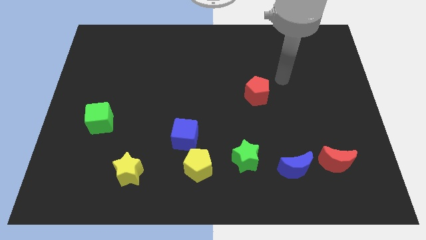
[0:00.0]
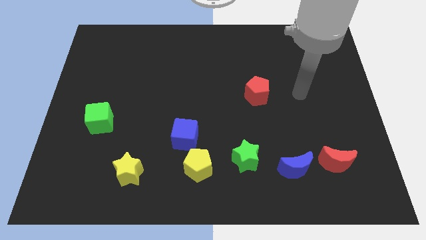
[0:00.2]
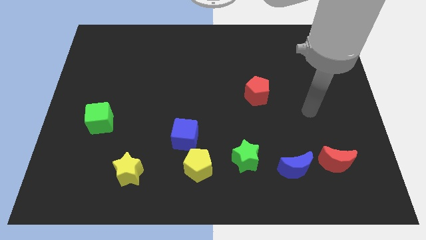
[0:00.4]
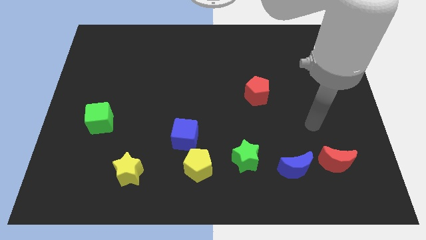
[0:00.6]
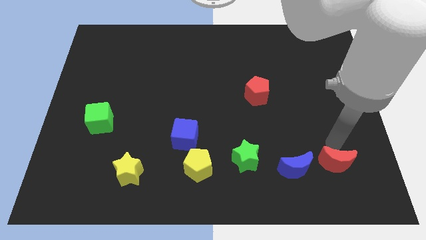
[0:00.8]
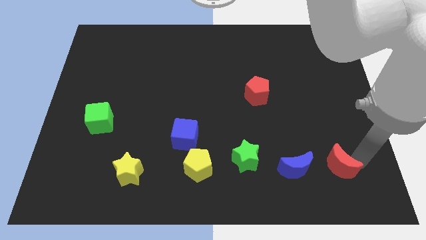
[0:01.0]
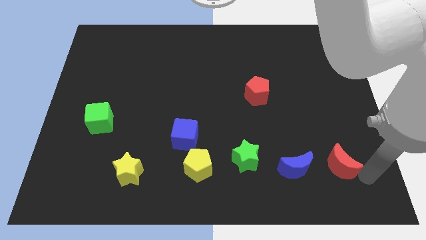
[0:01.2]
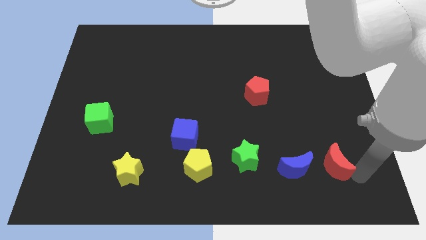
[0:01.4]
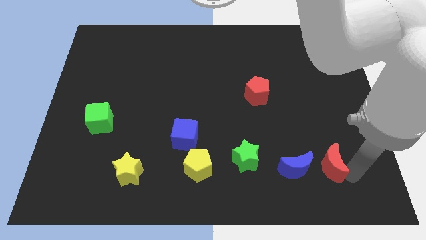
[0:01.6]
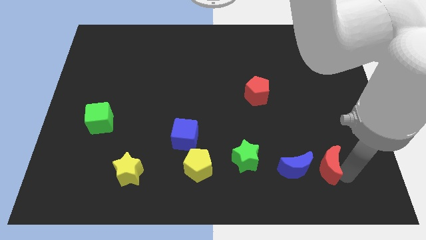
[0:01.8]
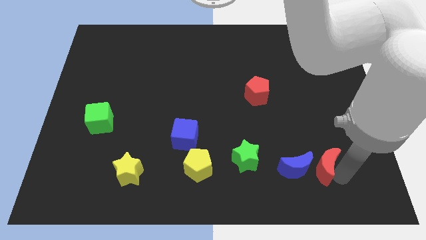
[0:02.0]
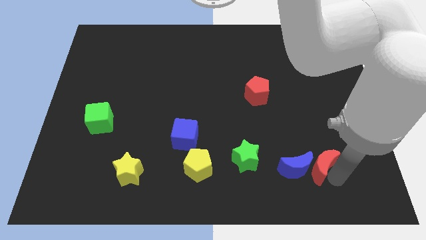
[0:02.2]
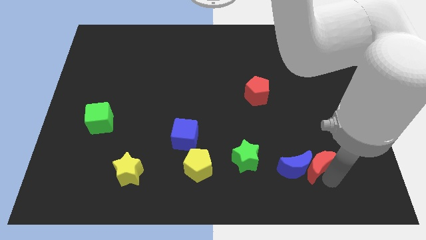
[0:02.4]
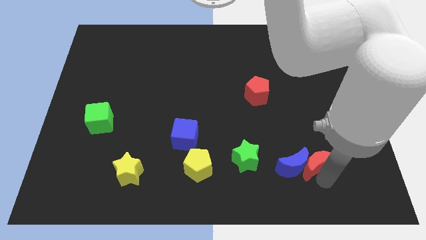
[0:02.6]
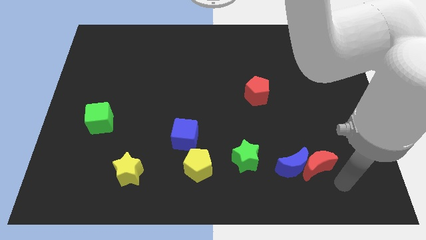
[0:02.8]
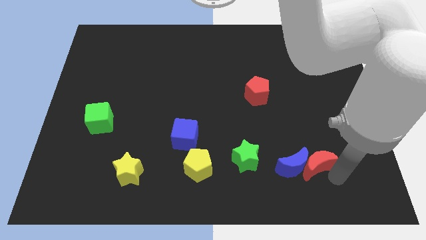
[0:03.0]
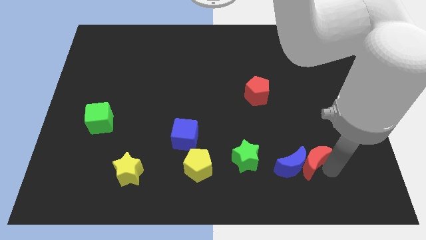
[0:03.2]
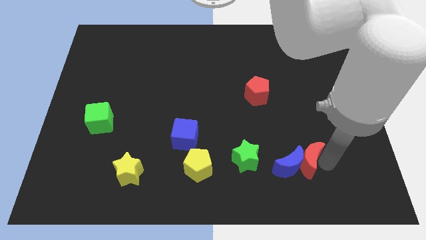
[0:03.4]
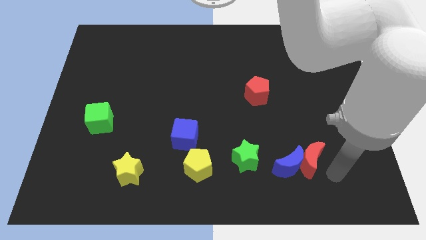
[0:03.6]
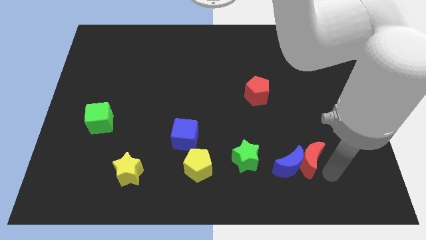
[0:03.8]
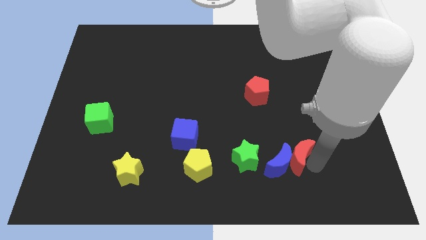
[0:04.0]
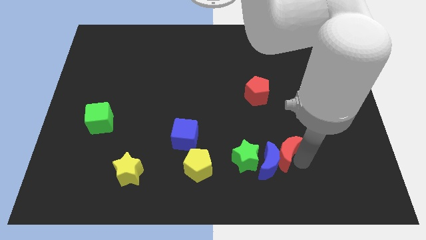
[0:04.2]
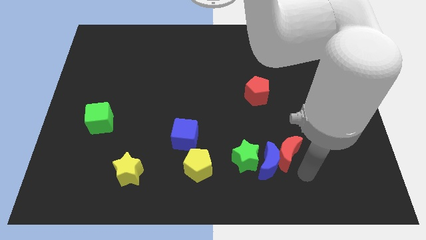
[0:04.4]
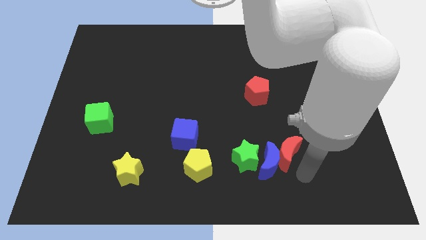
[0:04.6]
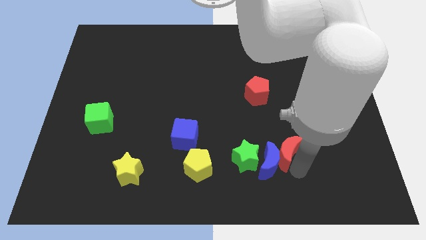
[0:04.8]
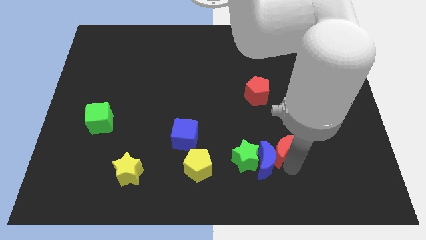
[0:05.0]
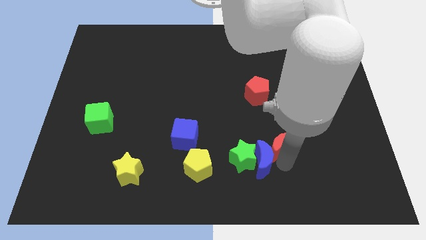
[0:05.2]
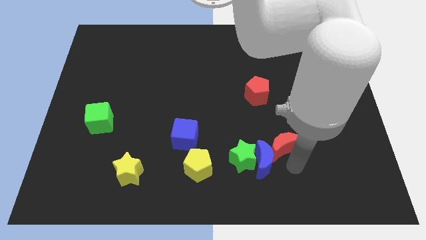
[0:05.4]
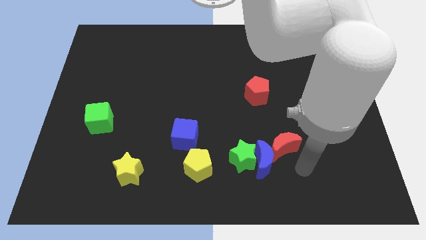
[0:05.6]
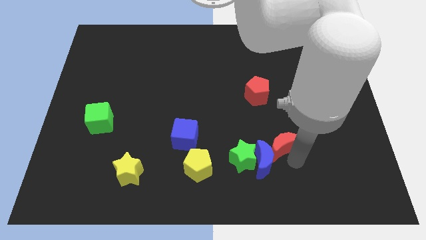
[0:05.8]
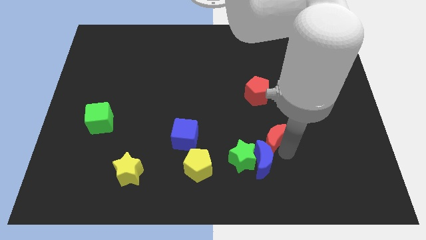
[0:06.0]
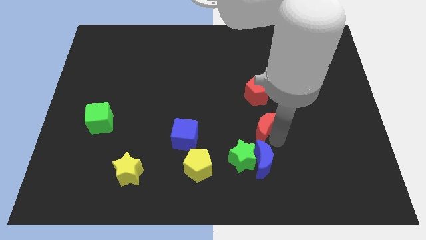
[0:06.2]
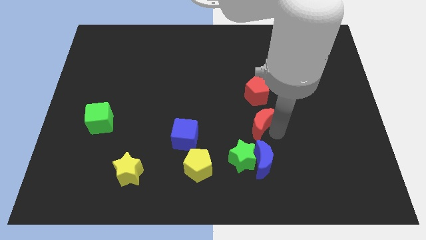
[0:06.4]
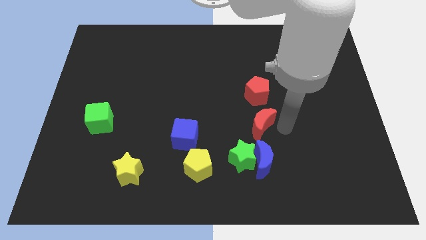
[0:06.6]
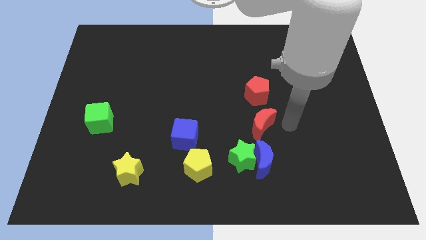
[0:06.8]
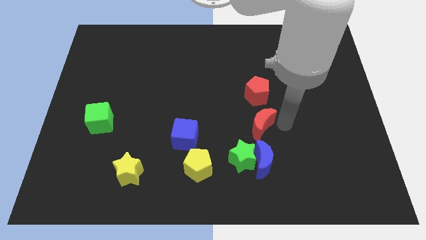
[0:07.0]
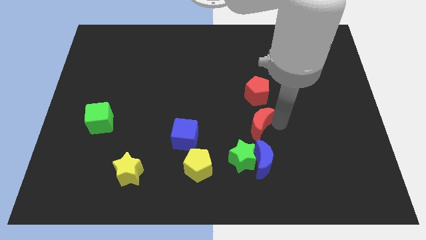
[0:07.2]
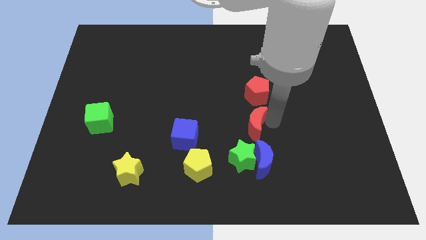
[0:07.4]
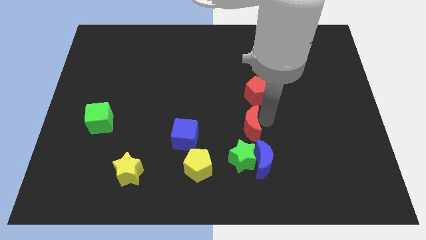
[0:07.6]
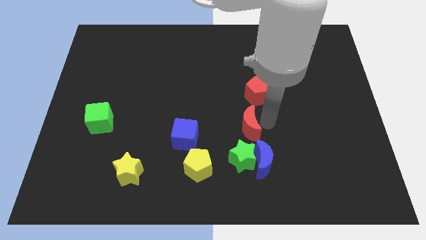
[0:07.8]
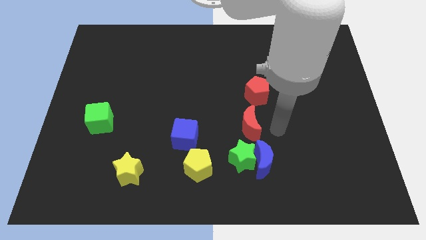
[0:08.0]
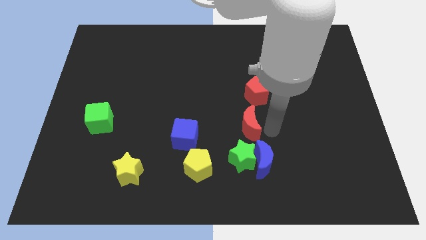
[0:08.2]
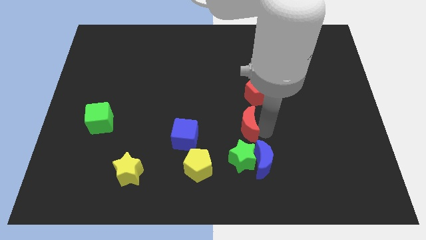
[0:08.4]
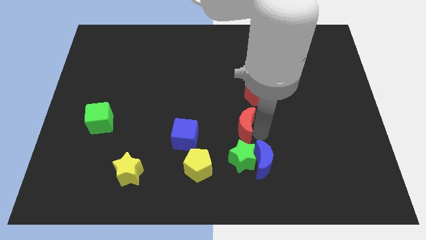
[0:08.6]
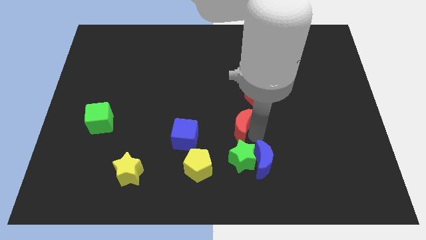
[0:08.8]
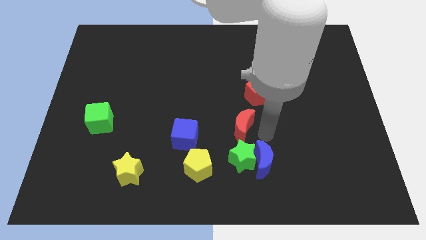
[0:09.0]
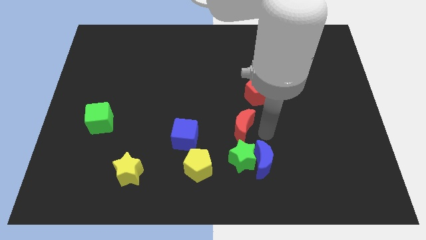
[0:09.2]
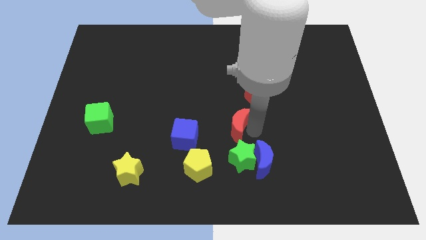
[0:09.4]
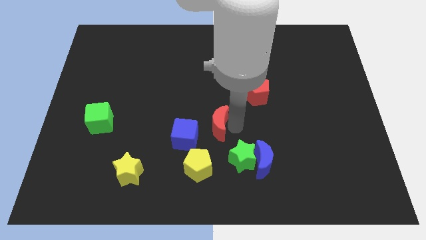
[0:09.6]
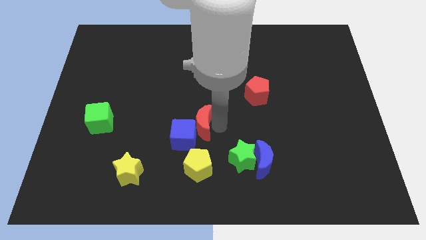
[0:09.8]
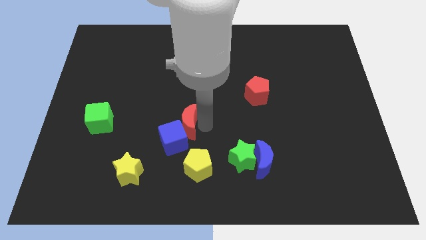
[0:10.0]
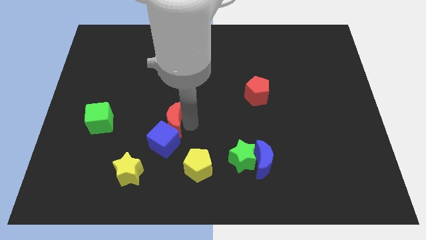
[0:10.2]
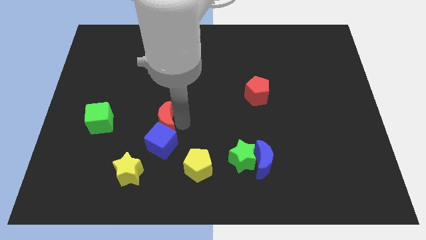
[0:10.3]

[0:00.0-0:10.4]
move the red moon right of the green cube

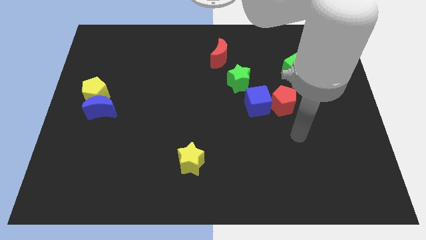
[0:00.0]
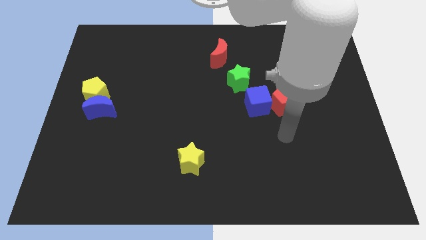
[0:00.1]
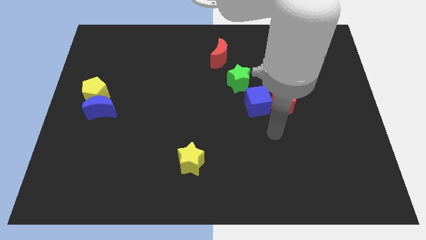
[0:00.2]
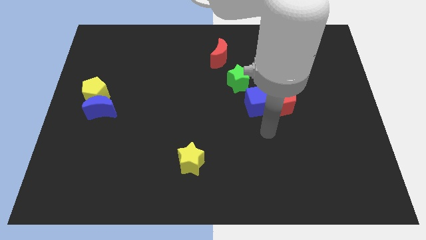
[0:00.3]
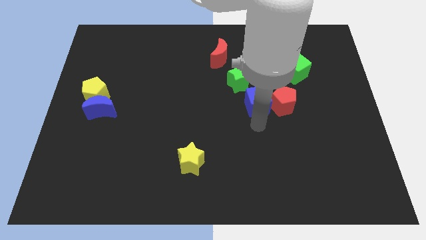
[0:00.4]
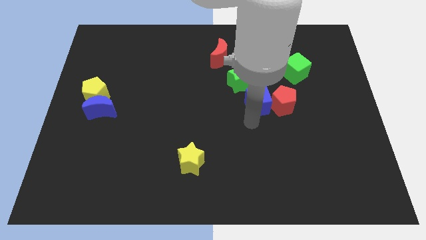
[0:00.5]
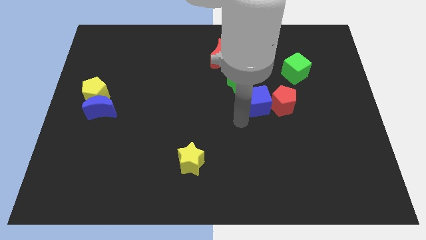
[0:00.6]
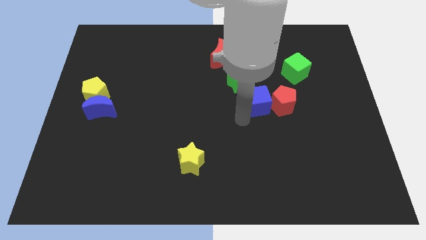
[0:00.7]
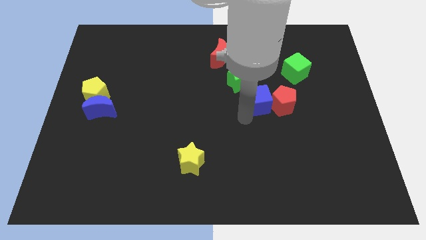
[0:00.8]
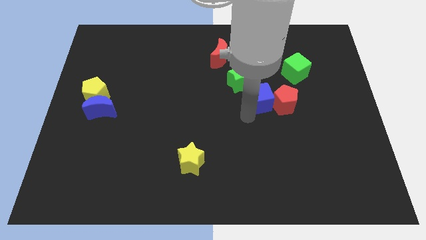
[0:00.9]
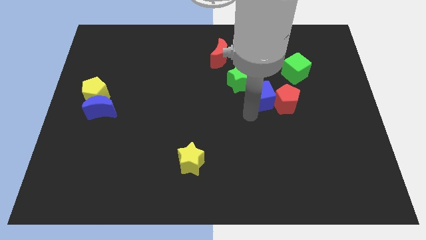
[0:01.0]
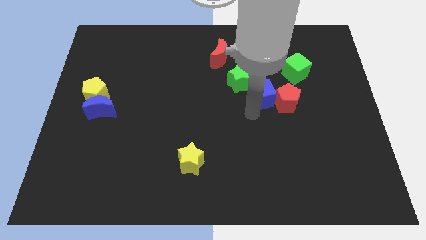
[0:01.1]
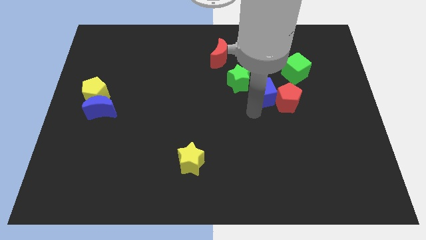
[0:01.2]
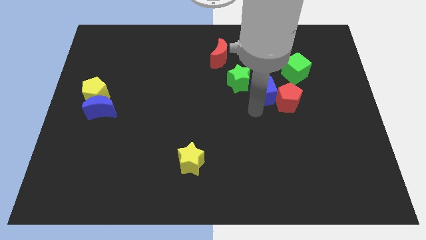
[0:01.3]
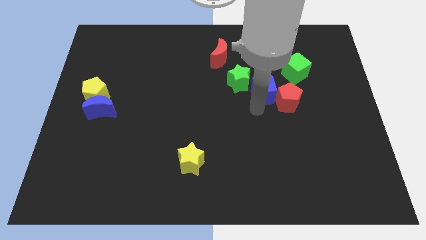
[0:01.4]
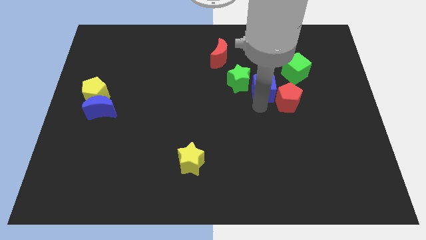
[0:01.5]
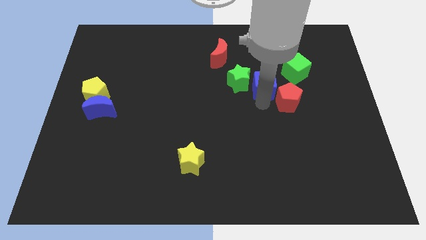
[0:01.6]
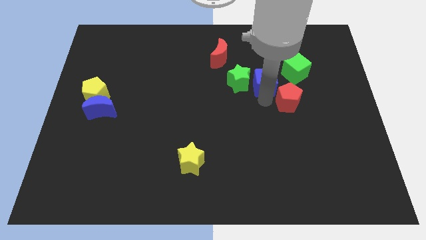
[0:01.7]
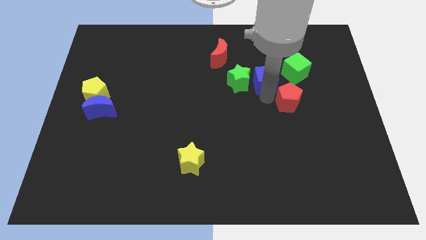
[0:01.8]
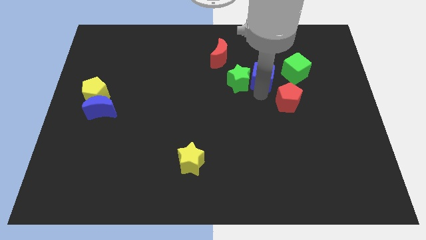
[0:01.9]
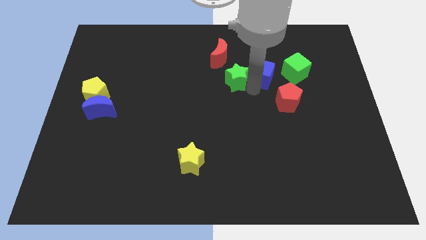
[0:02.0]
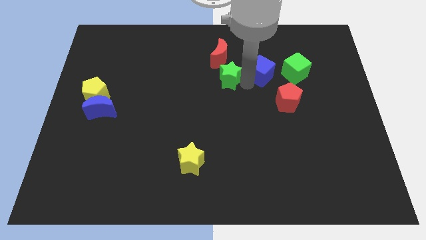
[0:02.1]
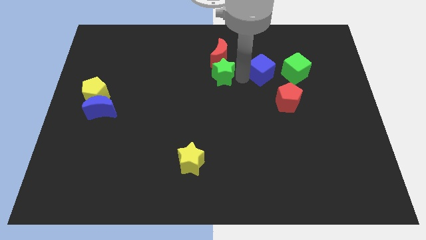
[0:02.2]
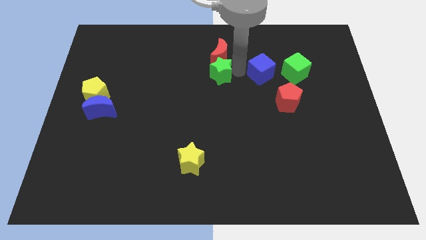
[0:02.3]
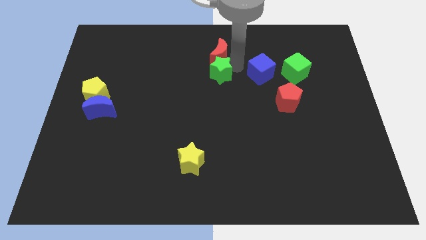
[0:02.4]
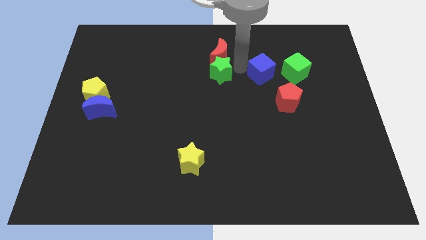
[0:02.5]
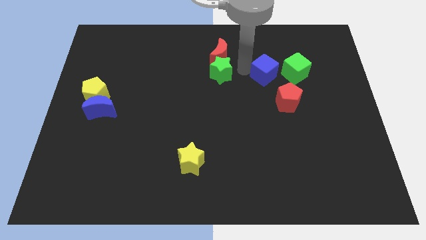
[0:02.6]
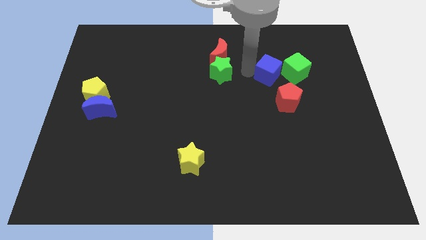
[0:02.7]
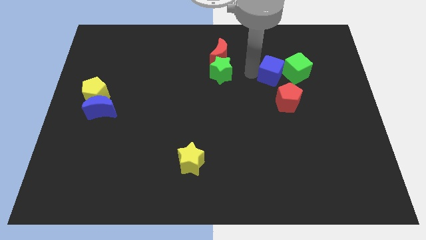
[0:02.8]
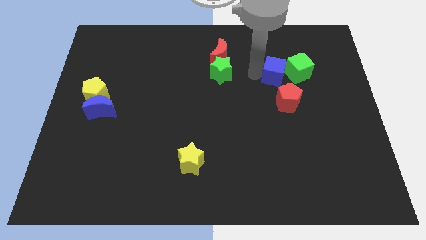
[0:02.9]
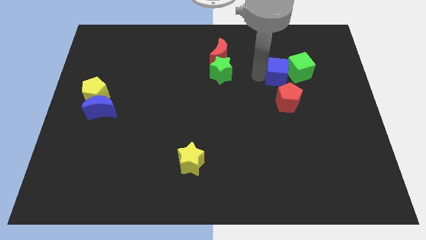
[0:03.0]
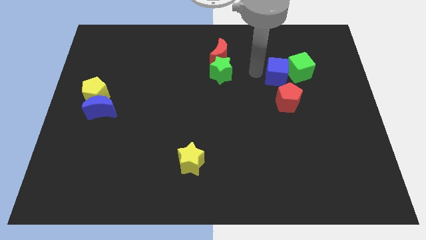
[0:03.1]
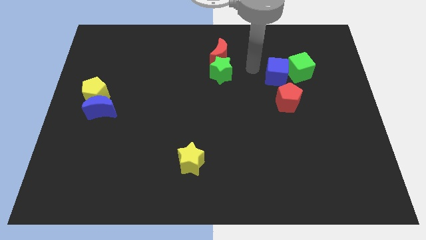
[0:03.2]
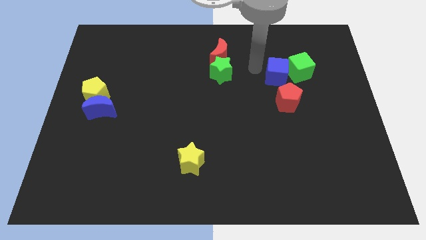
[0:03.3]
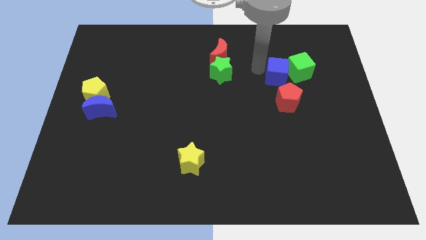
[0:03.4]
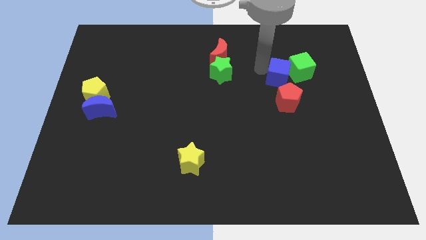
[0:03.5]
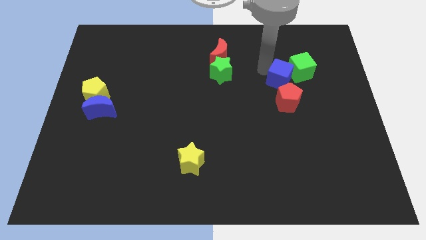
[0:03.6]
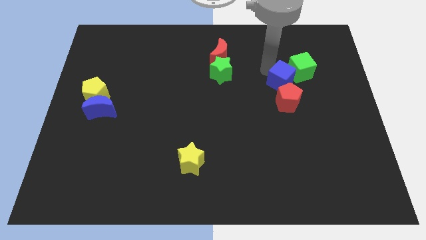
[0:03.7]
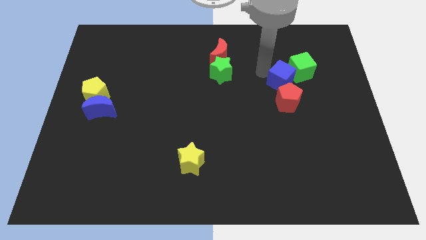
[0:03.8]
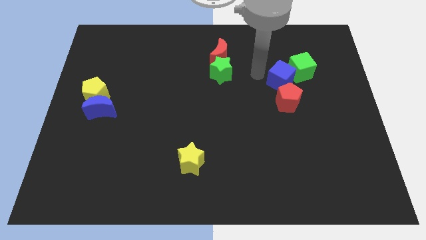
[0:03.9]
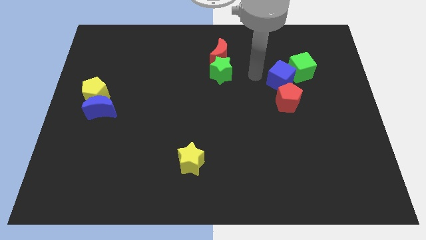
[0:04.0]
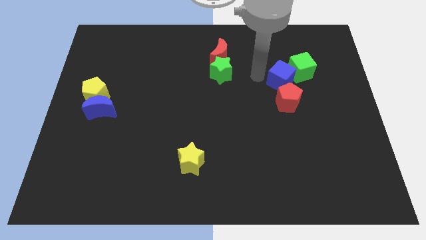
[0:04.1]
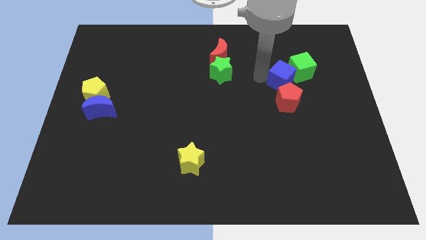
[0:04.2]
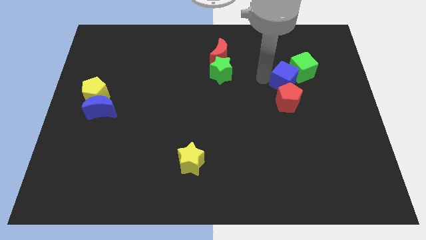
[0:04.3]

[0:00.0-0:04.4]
put the blue cube diagonally up and to the right of the red pentagon
